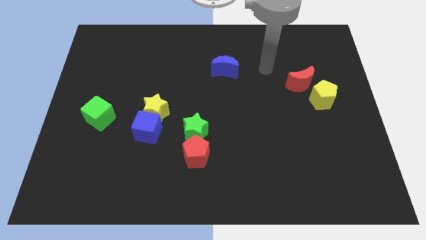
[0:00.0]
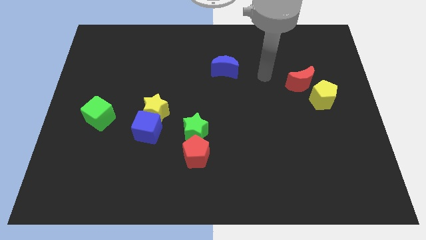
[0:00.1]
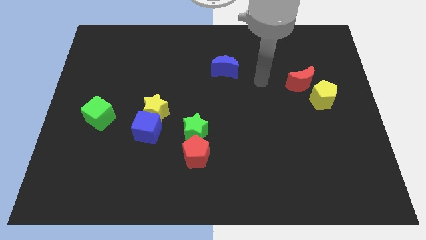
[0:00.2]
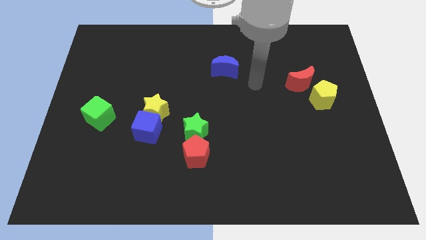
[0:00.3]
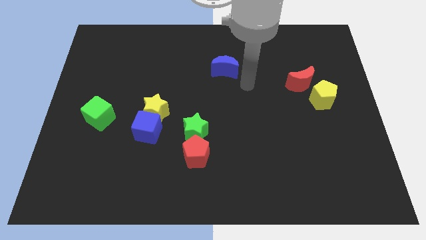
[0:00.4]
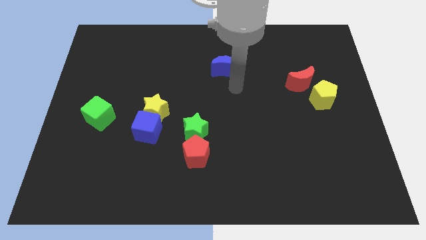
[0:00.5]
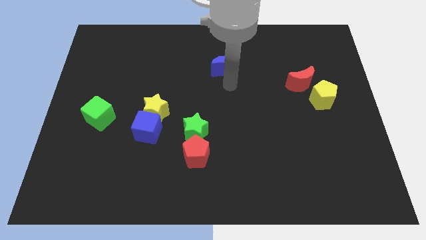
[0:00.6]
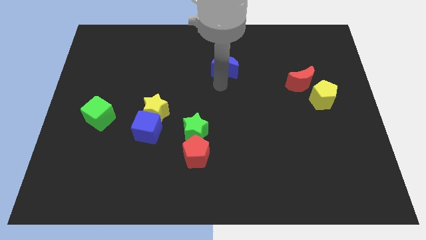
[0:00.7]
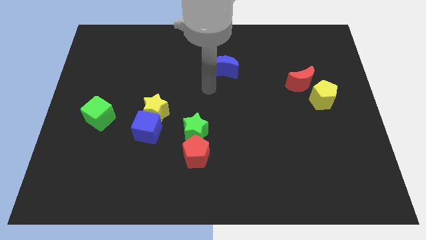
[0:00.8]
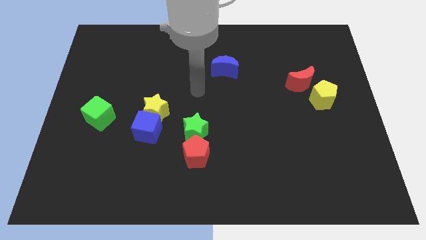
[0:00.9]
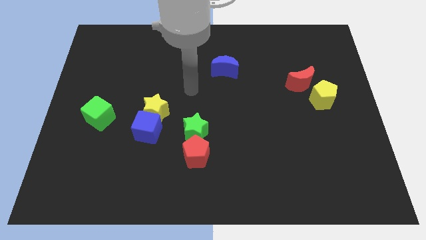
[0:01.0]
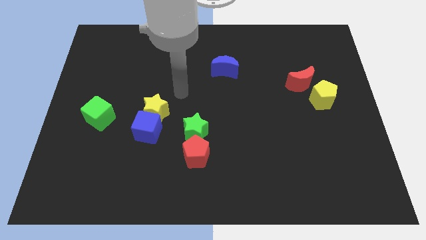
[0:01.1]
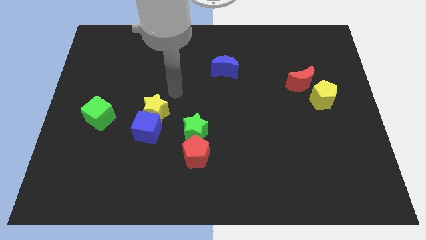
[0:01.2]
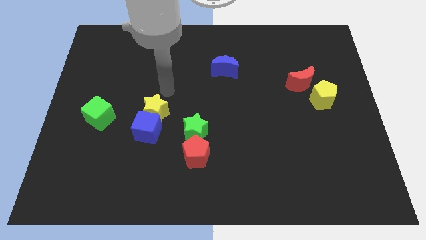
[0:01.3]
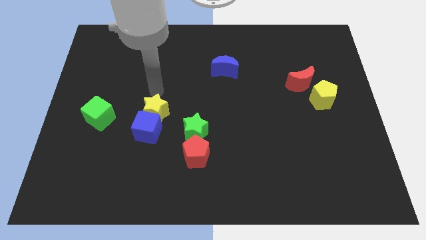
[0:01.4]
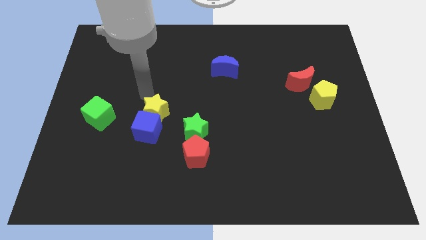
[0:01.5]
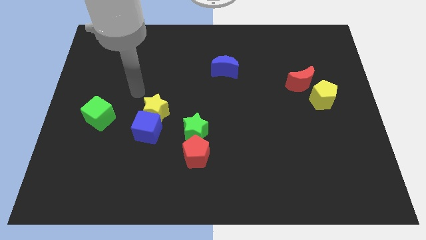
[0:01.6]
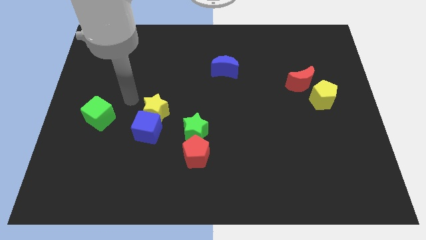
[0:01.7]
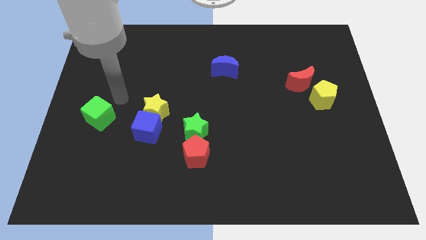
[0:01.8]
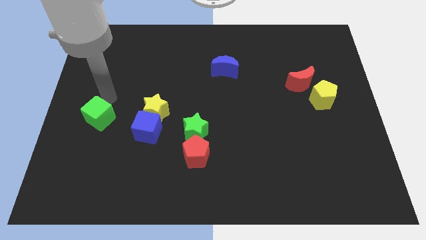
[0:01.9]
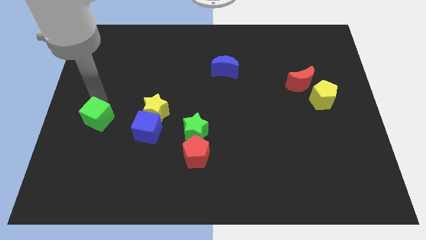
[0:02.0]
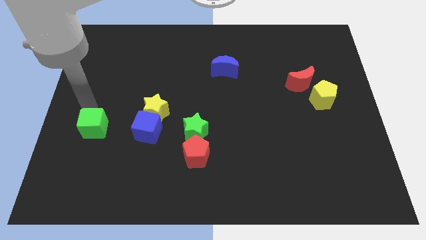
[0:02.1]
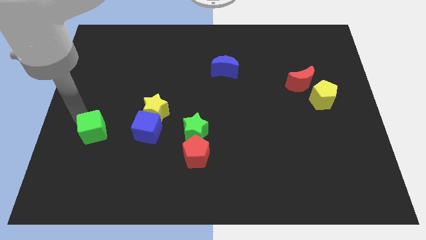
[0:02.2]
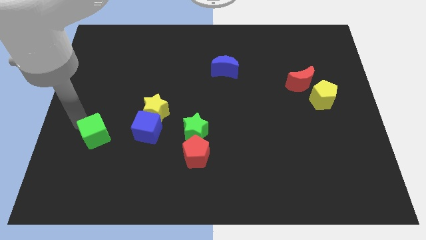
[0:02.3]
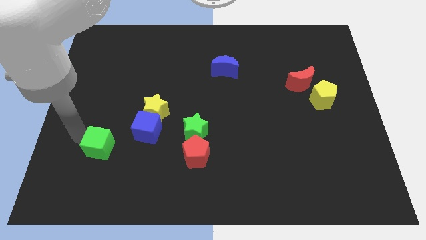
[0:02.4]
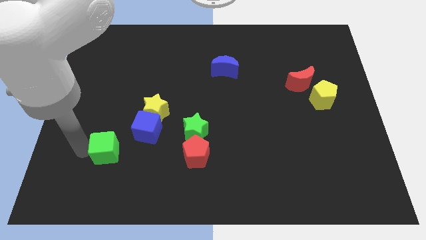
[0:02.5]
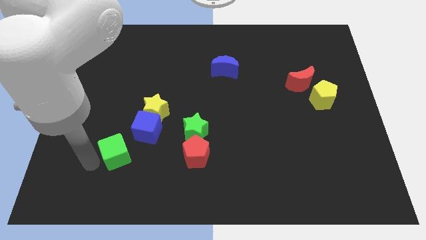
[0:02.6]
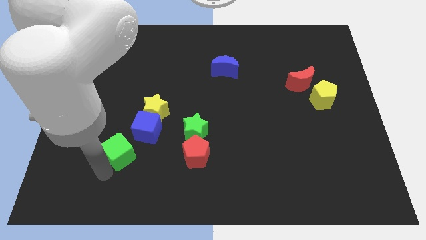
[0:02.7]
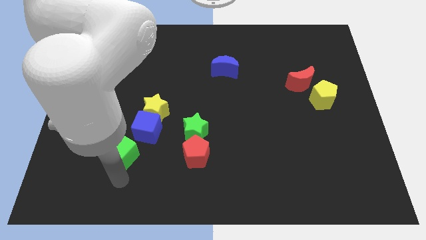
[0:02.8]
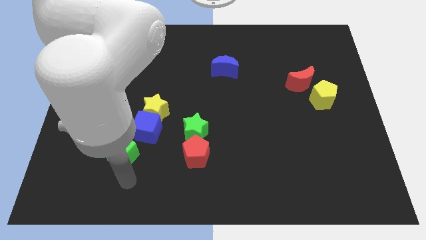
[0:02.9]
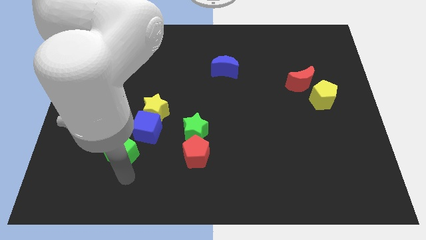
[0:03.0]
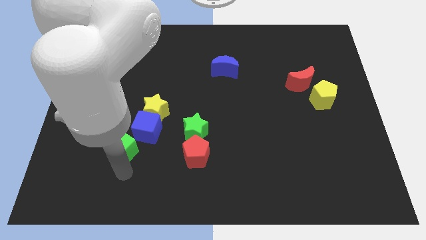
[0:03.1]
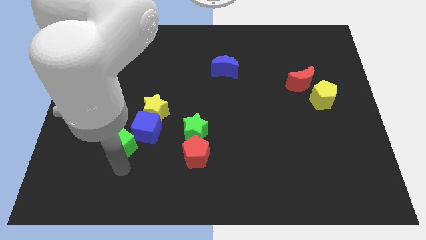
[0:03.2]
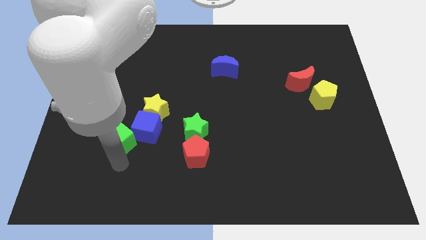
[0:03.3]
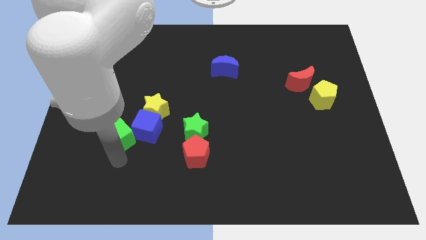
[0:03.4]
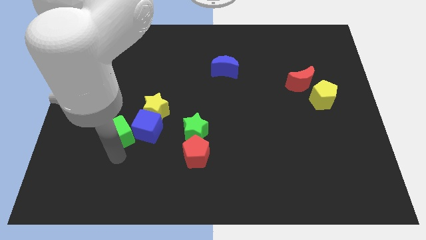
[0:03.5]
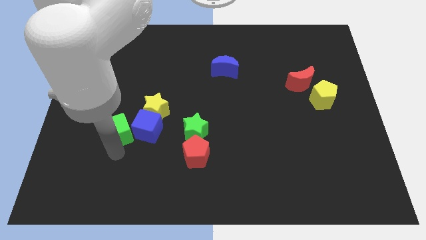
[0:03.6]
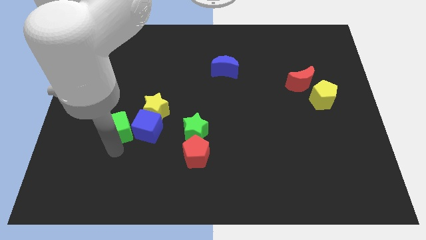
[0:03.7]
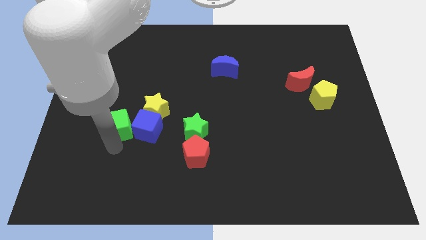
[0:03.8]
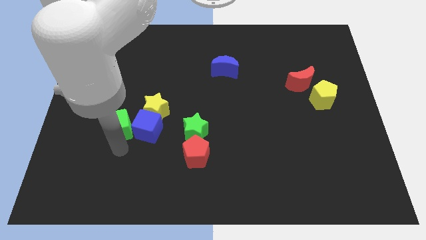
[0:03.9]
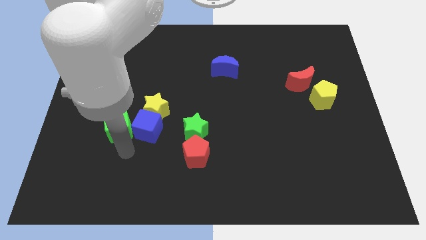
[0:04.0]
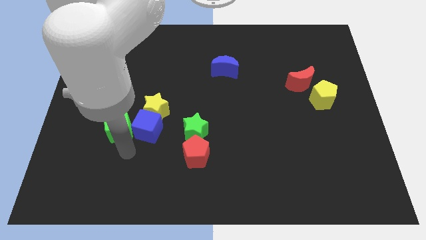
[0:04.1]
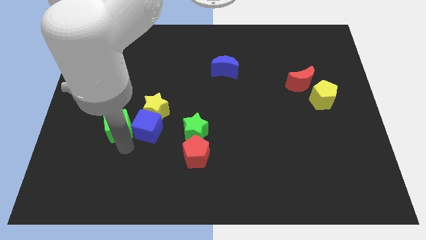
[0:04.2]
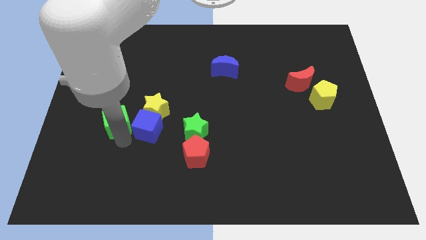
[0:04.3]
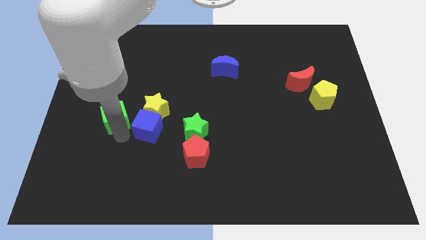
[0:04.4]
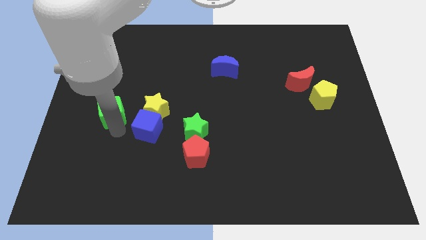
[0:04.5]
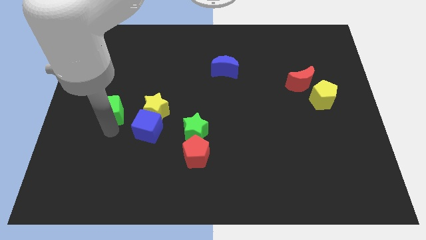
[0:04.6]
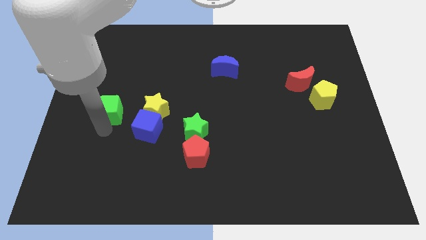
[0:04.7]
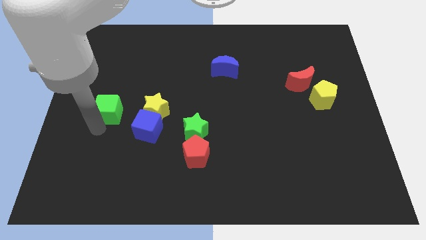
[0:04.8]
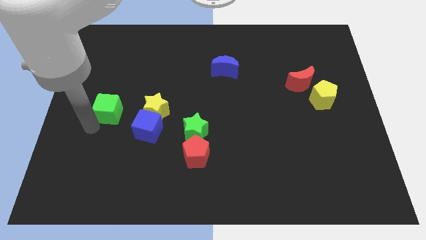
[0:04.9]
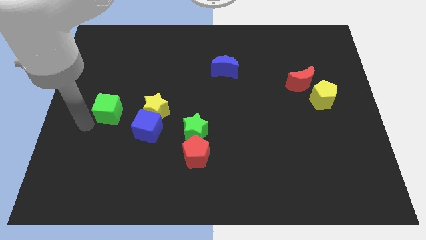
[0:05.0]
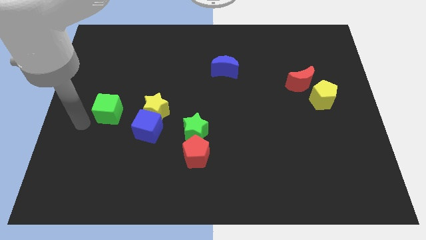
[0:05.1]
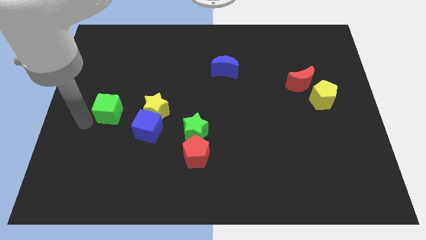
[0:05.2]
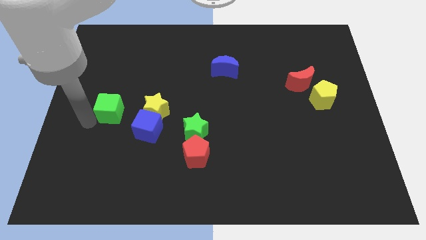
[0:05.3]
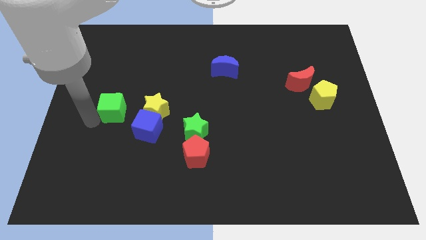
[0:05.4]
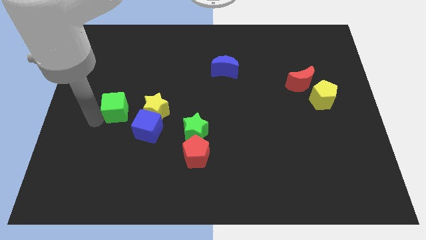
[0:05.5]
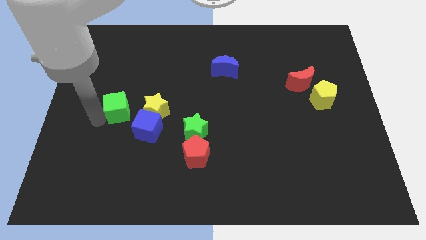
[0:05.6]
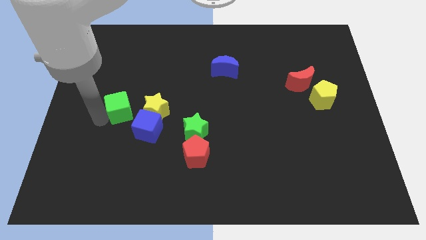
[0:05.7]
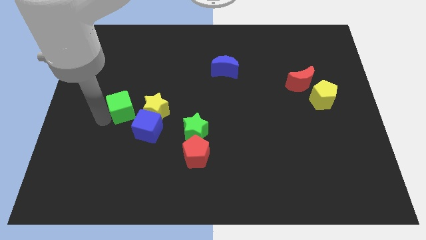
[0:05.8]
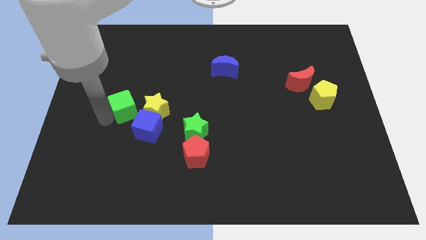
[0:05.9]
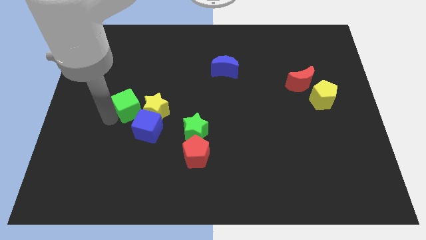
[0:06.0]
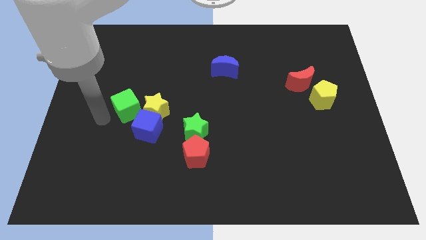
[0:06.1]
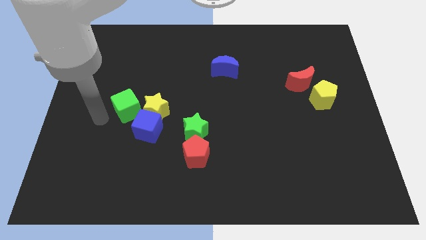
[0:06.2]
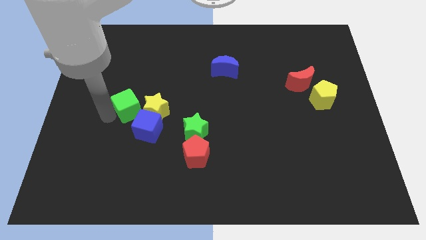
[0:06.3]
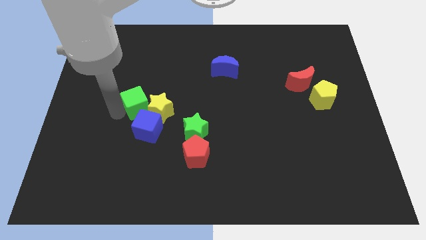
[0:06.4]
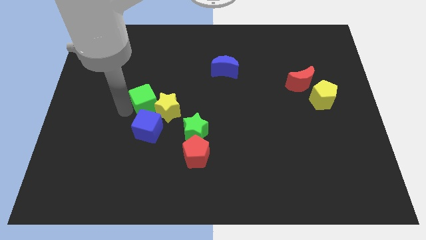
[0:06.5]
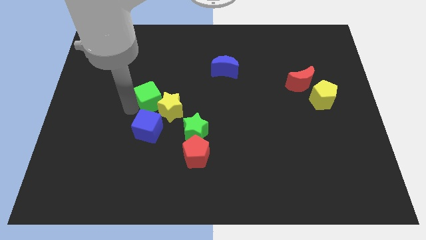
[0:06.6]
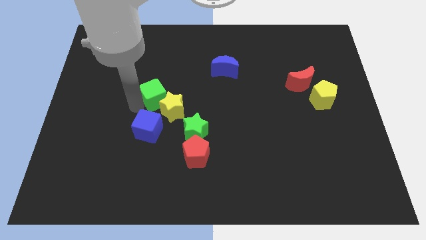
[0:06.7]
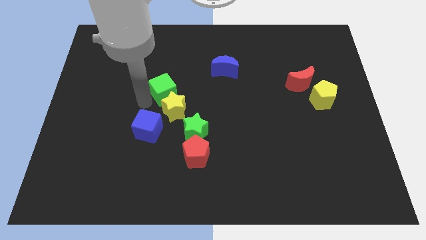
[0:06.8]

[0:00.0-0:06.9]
slide the green cube to the middle of the board
